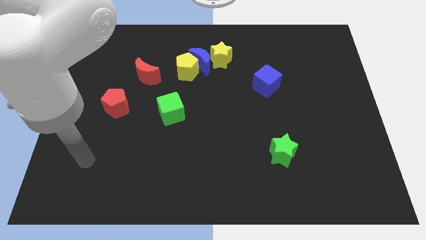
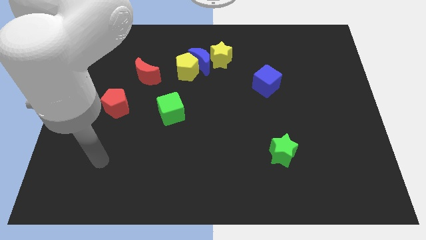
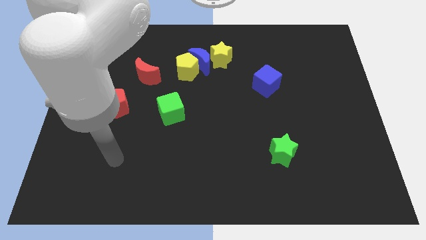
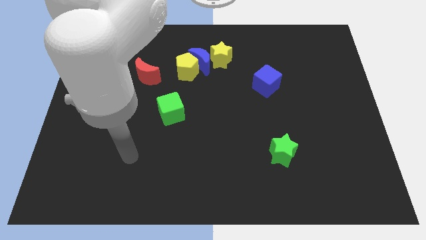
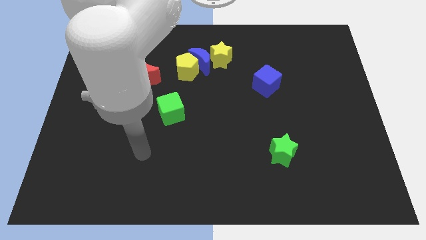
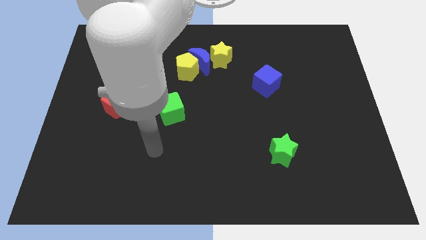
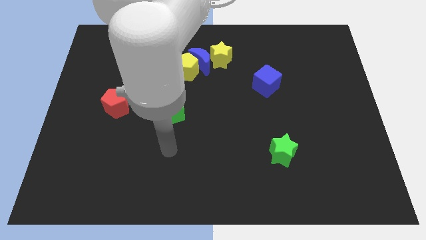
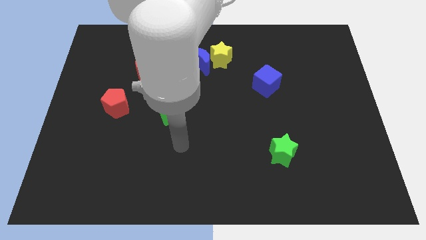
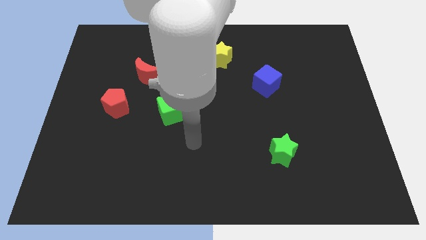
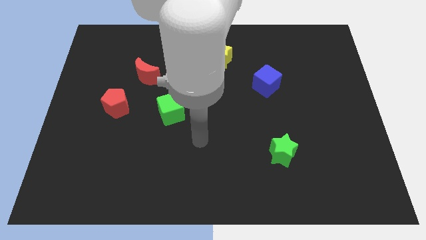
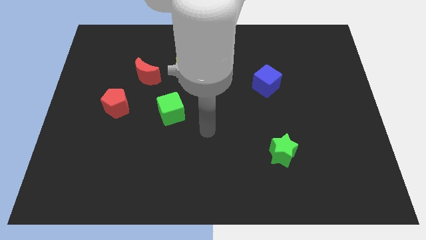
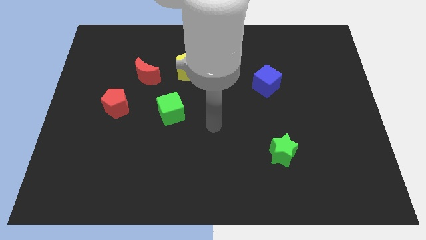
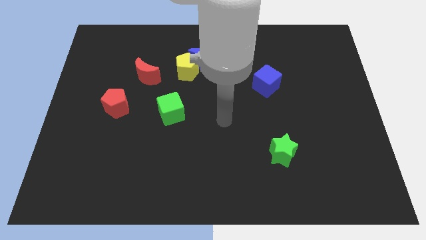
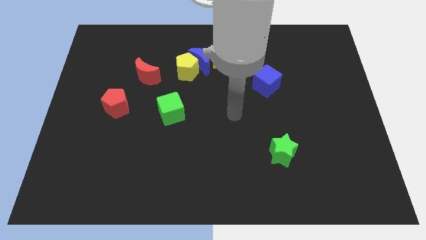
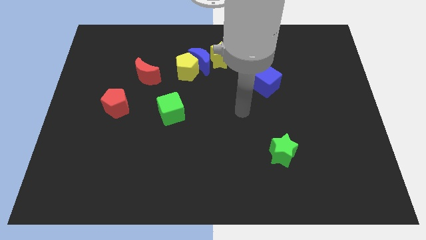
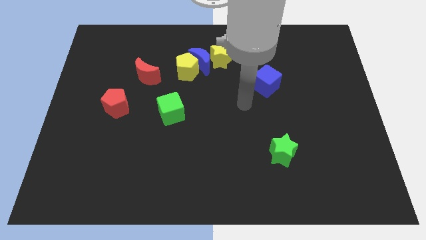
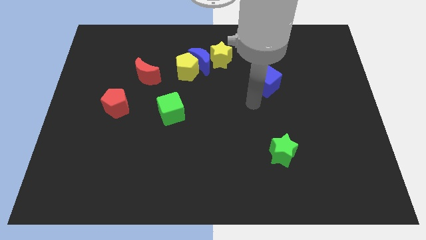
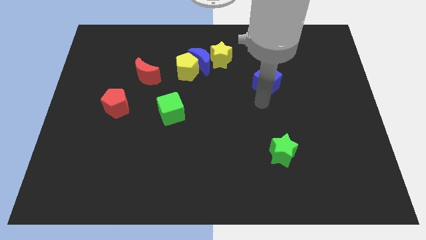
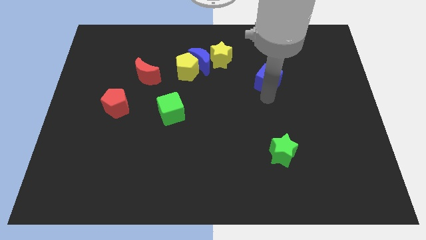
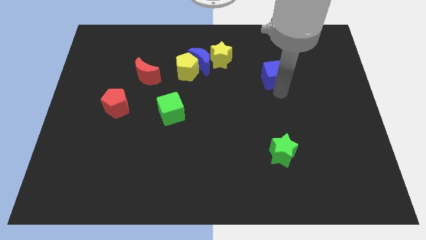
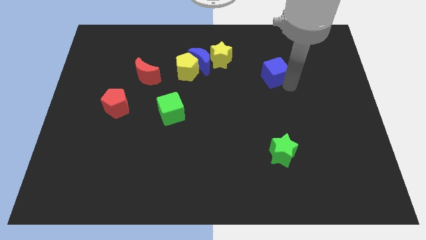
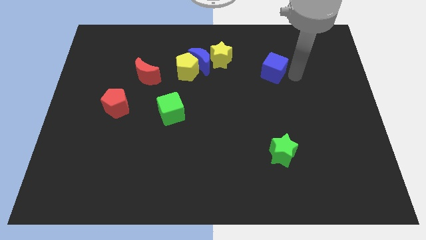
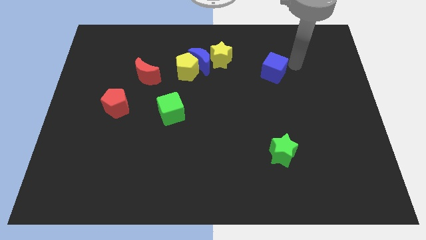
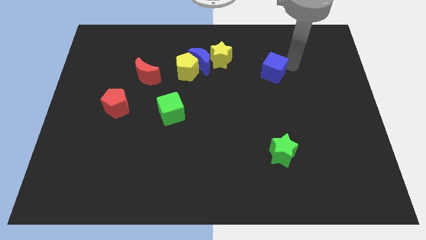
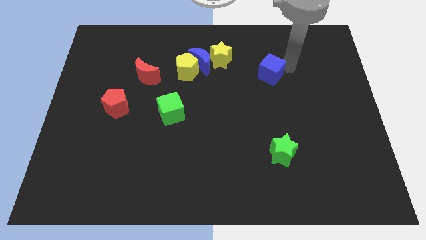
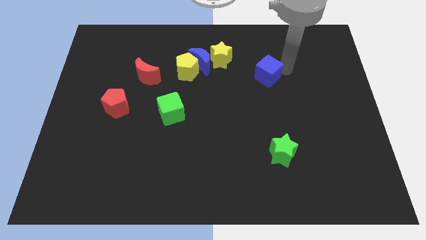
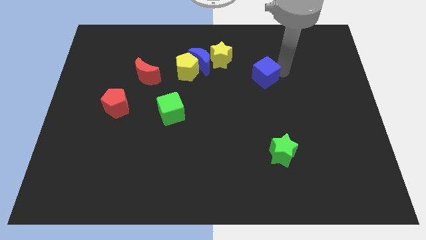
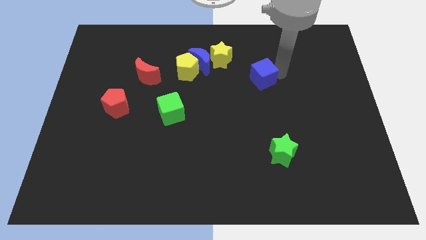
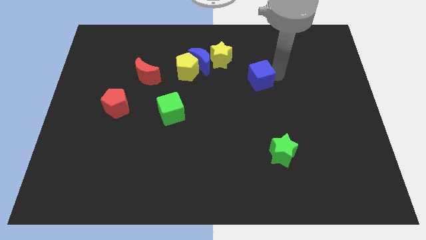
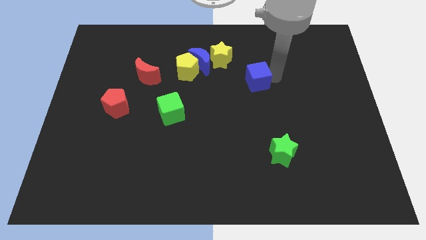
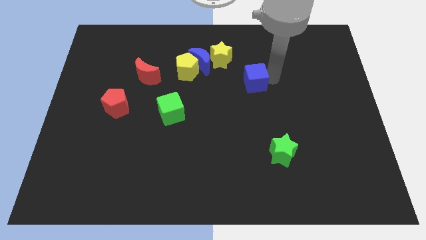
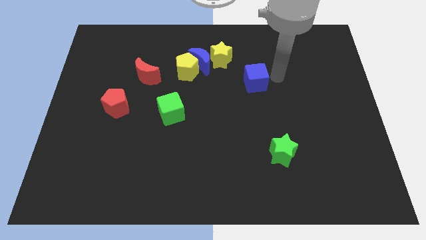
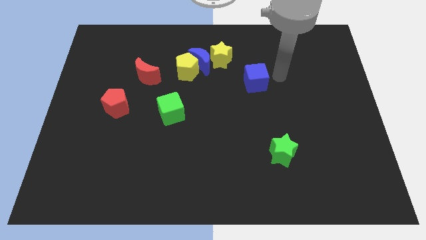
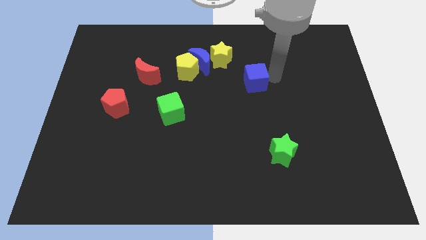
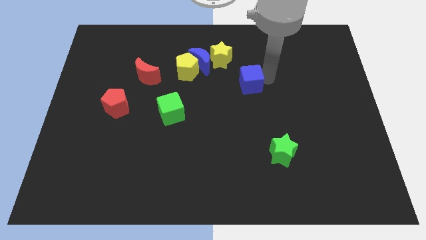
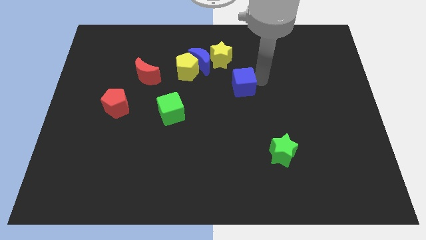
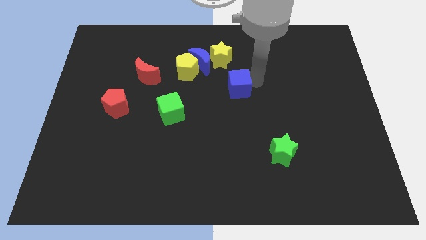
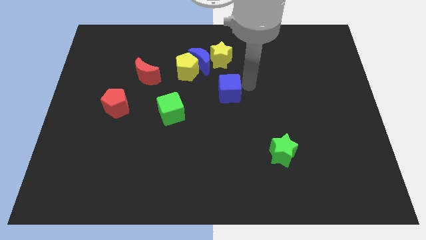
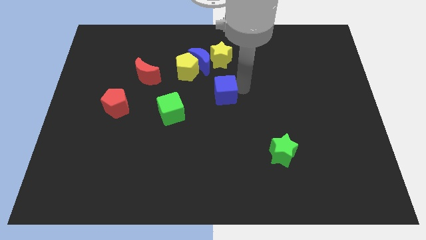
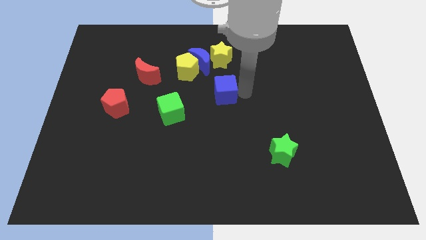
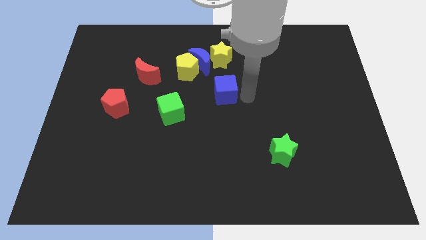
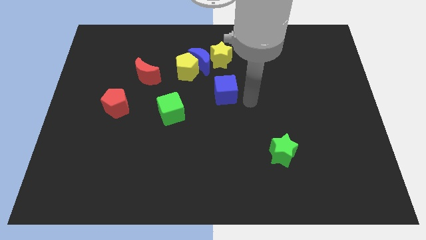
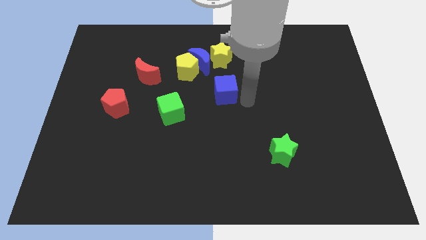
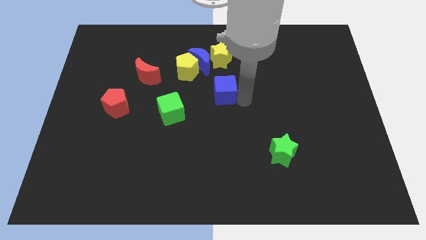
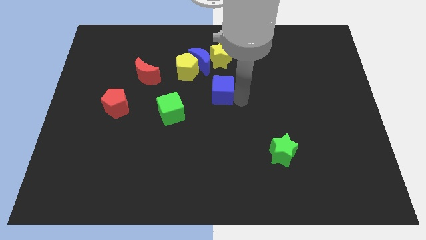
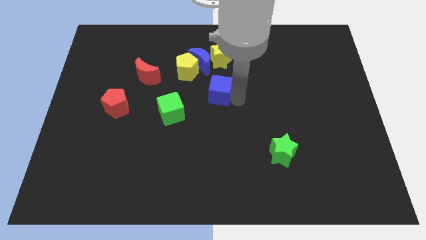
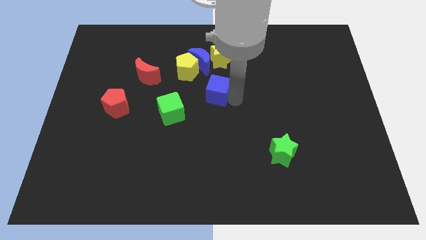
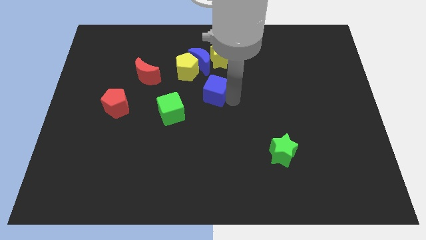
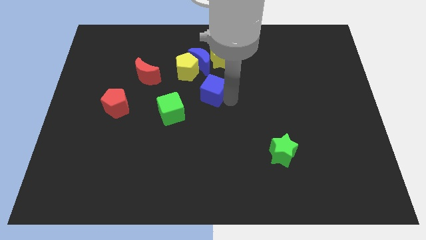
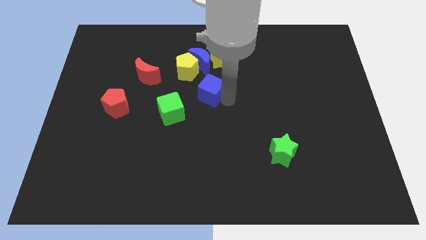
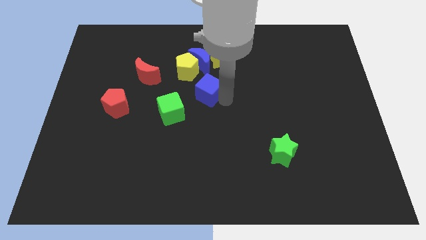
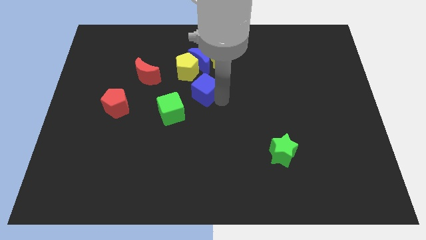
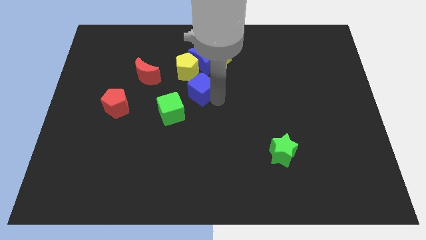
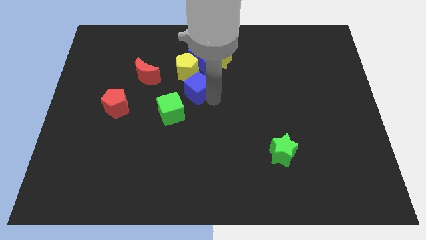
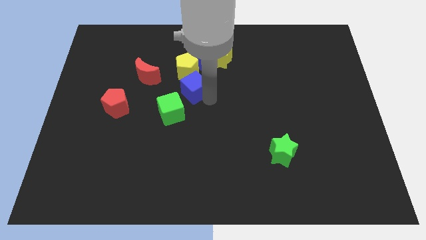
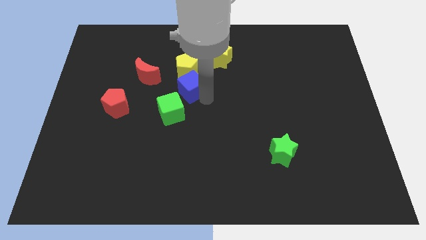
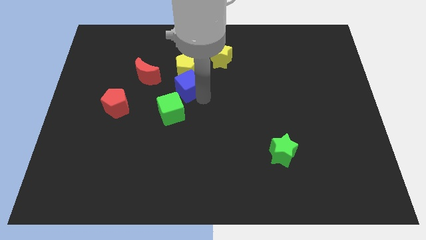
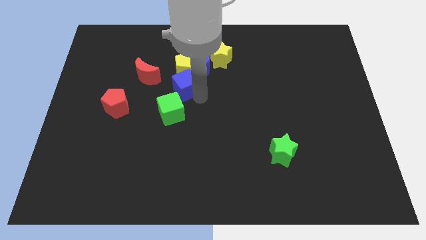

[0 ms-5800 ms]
push the blue cube towards the yellow pentagon

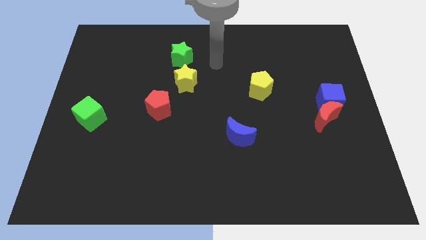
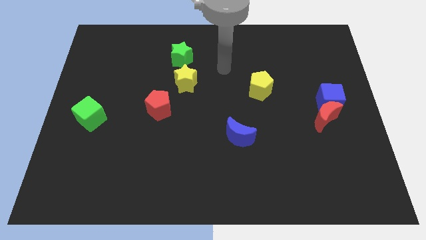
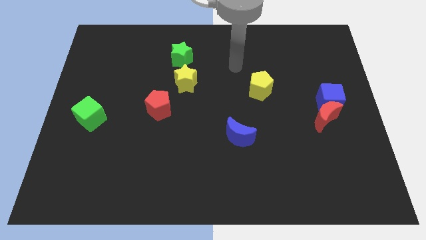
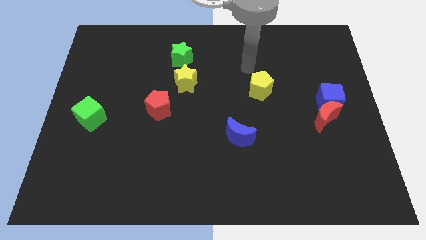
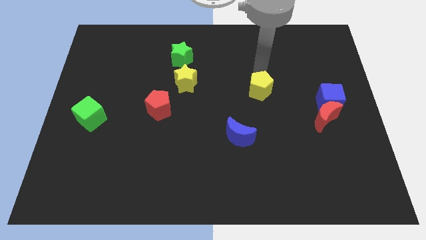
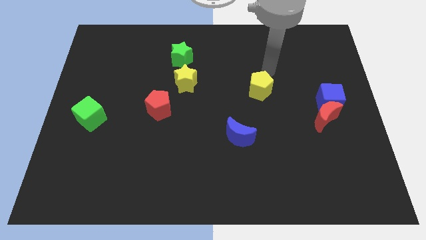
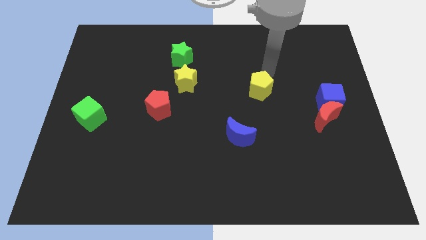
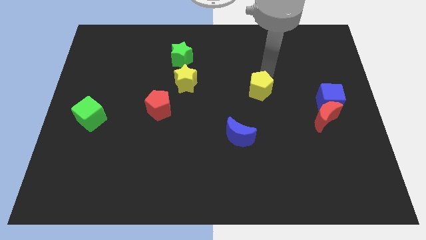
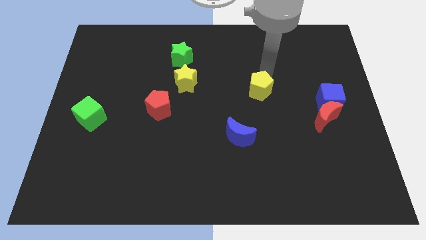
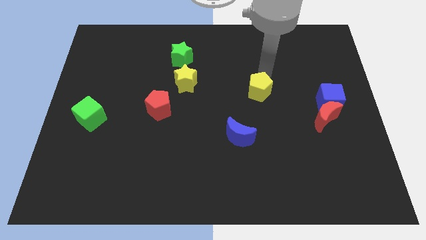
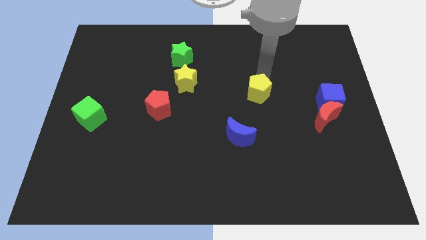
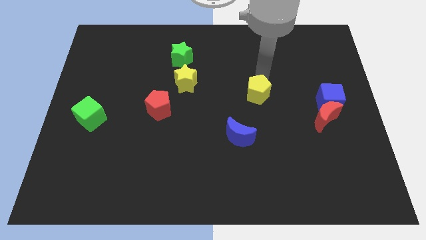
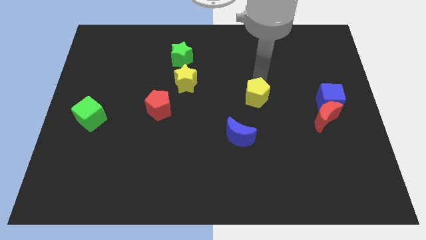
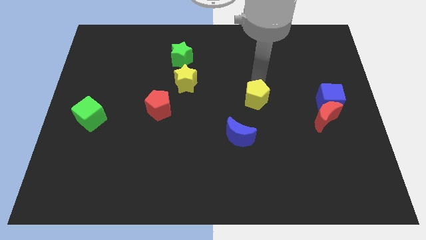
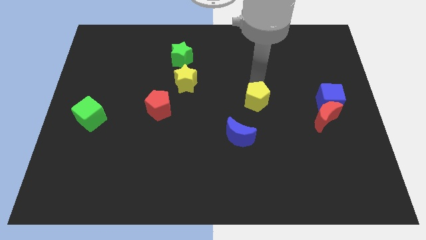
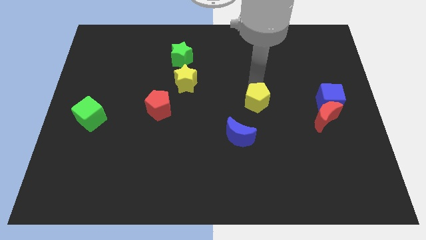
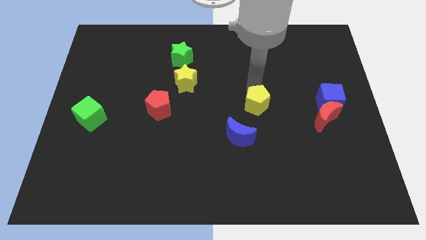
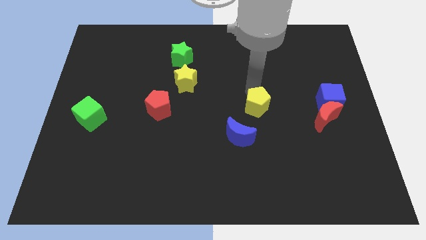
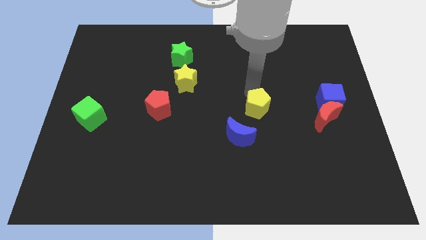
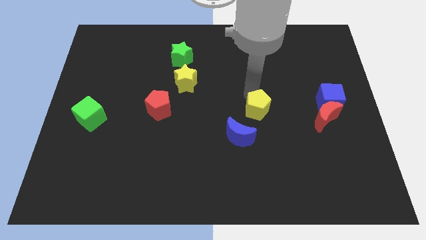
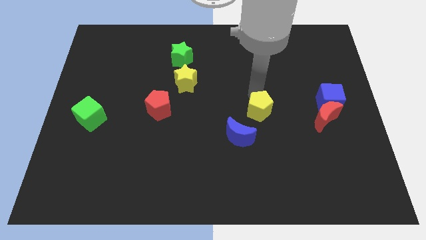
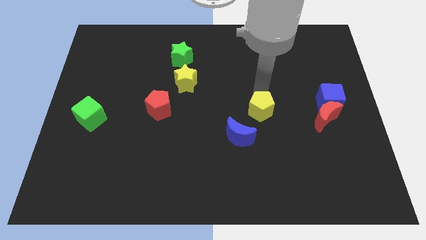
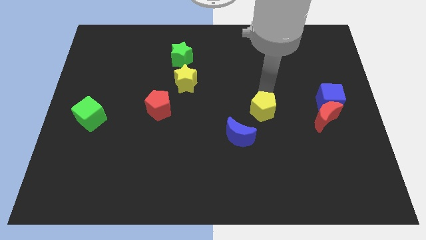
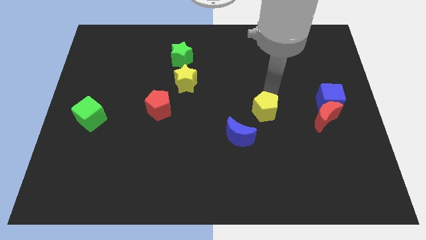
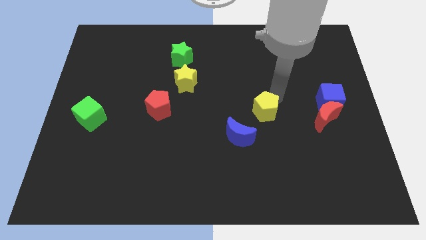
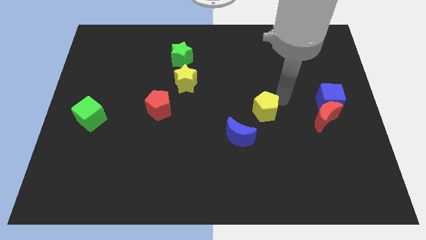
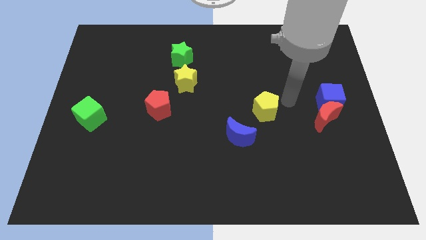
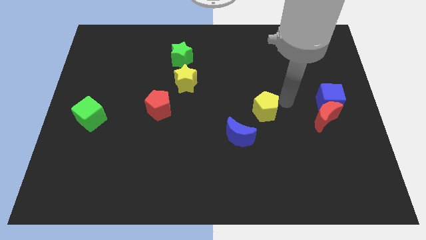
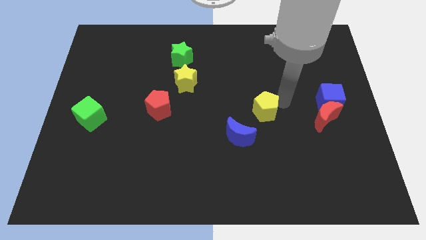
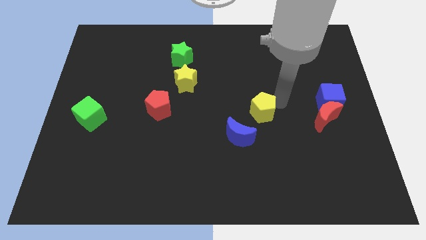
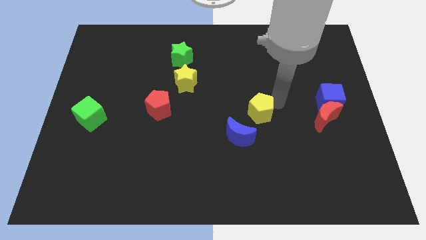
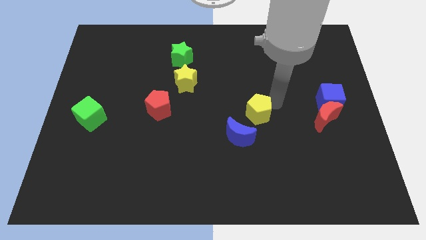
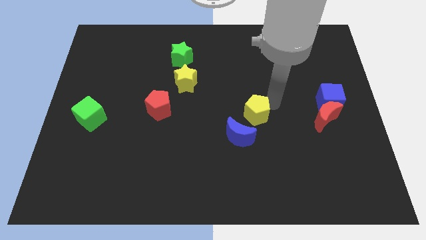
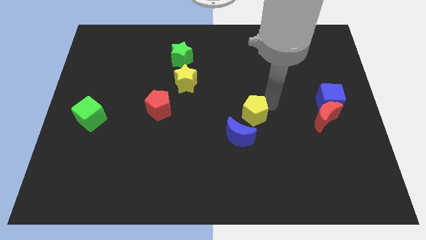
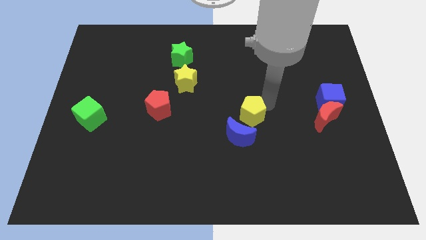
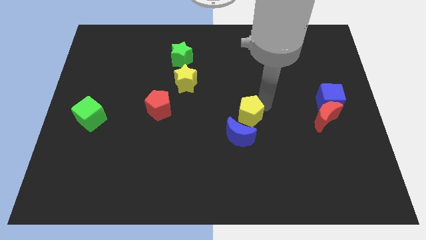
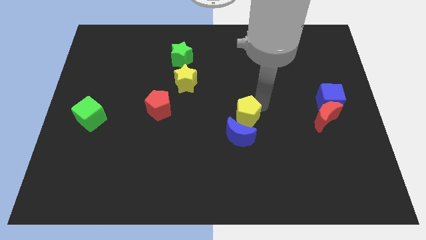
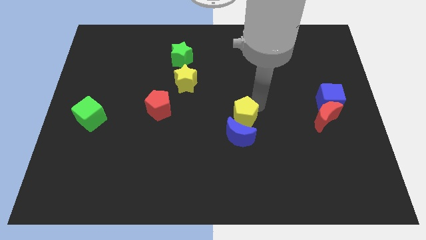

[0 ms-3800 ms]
push the yellow pentagon close to the blue moon
